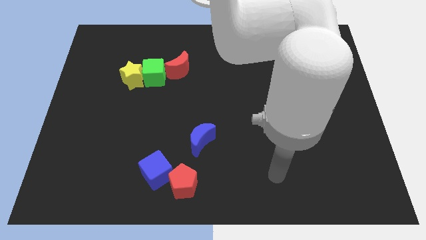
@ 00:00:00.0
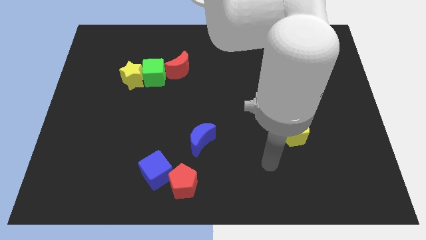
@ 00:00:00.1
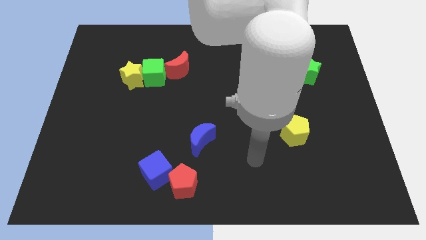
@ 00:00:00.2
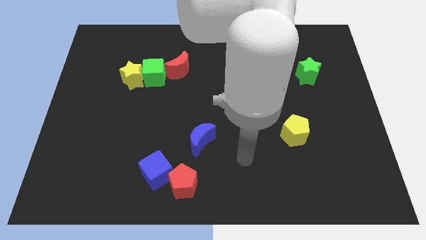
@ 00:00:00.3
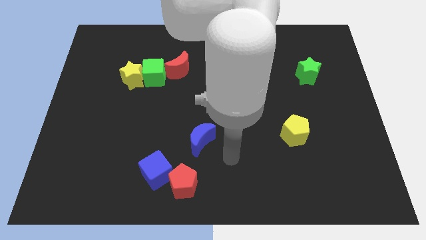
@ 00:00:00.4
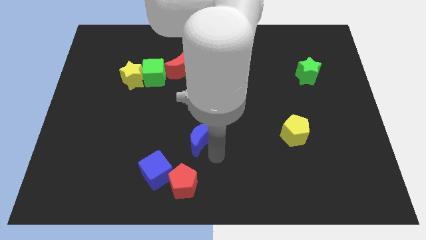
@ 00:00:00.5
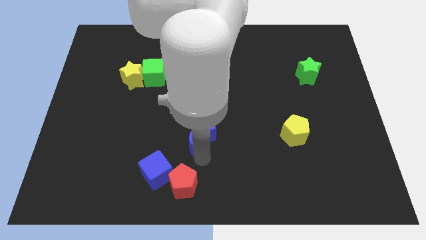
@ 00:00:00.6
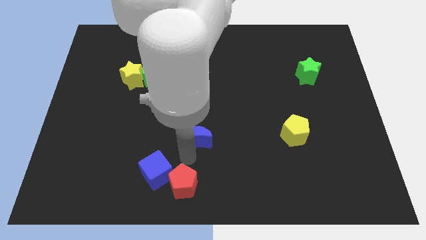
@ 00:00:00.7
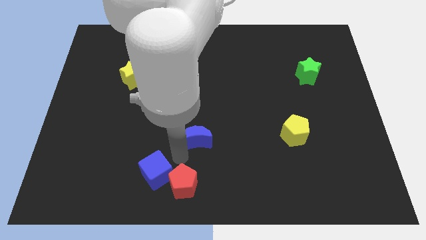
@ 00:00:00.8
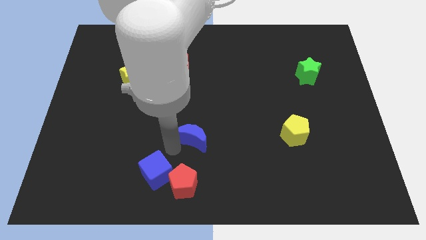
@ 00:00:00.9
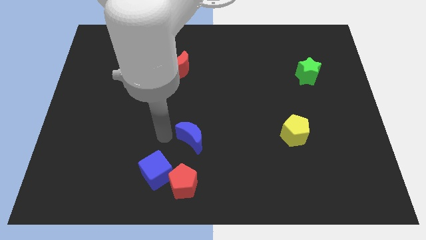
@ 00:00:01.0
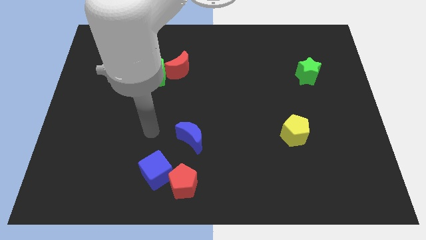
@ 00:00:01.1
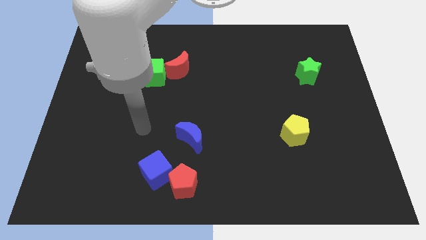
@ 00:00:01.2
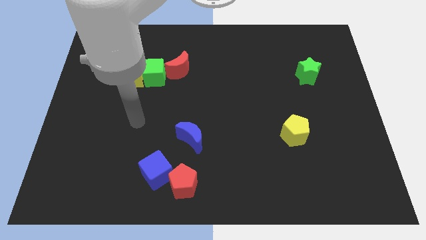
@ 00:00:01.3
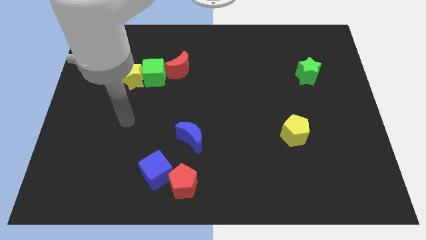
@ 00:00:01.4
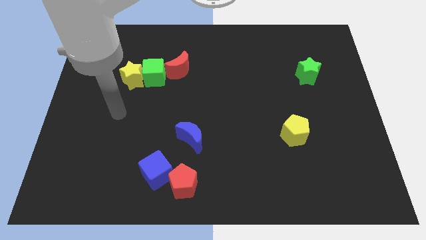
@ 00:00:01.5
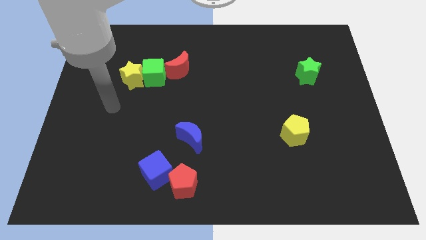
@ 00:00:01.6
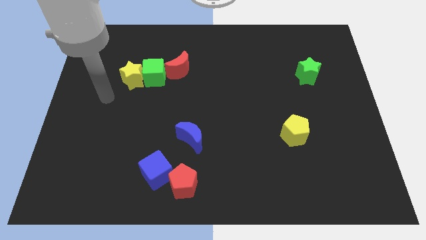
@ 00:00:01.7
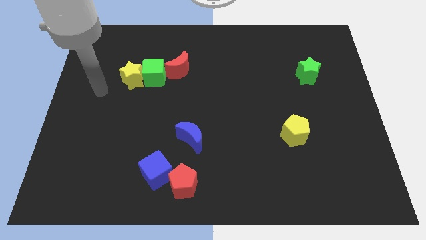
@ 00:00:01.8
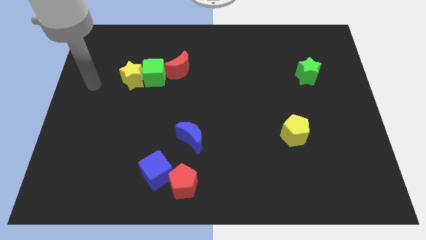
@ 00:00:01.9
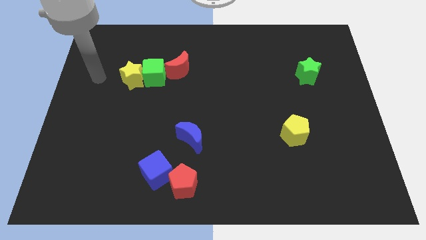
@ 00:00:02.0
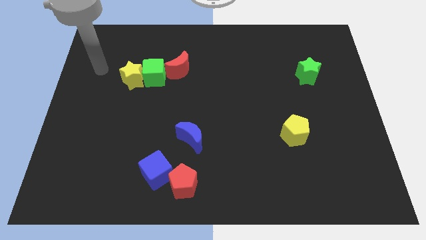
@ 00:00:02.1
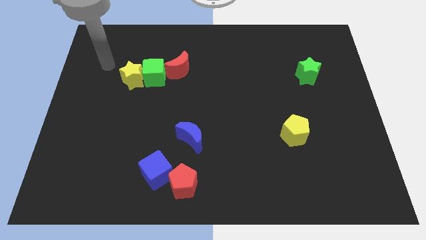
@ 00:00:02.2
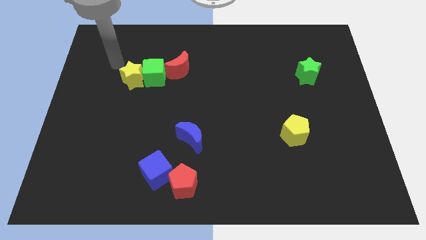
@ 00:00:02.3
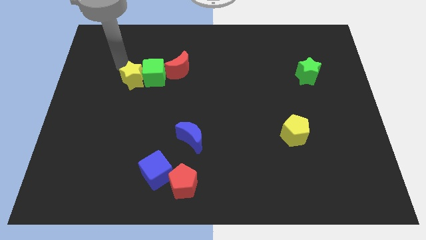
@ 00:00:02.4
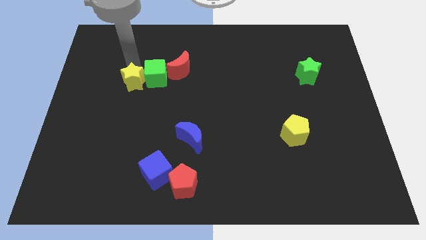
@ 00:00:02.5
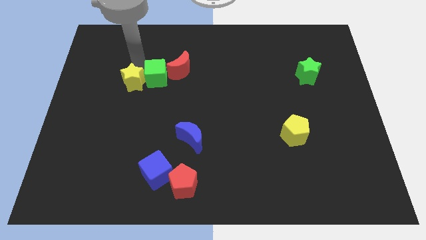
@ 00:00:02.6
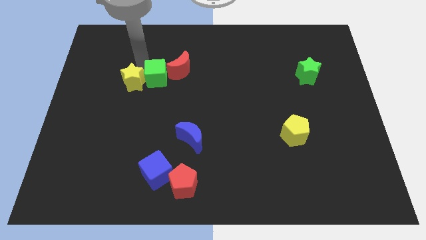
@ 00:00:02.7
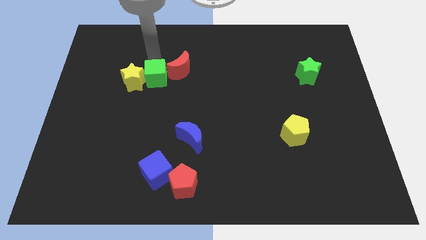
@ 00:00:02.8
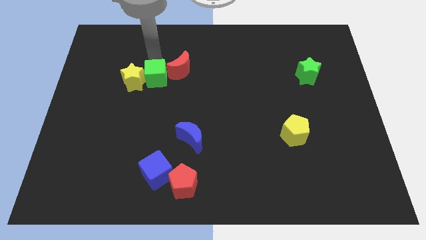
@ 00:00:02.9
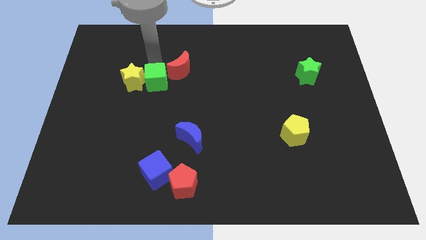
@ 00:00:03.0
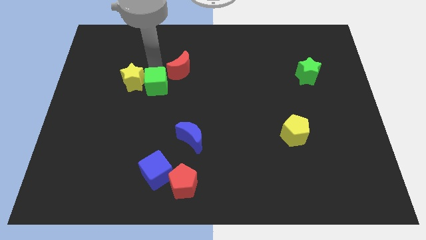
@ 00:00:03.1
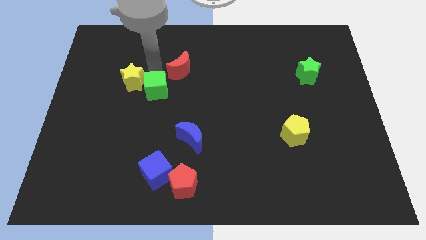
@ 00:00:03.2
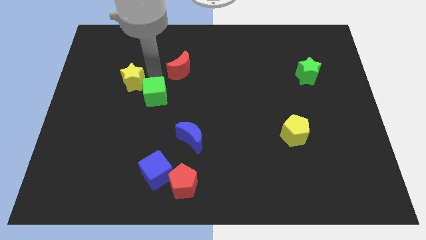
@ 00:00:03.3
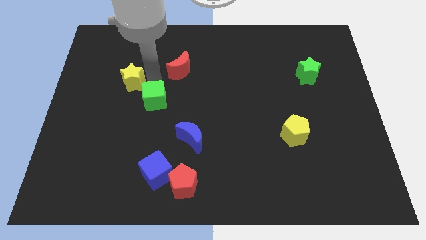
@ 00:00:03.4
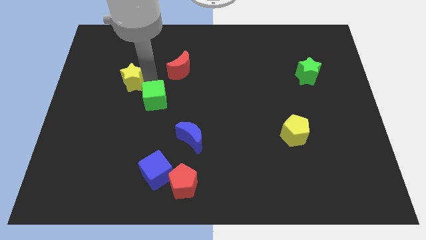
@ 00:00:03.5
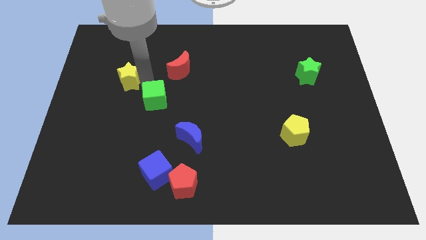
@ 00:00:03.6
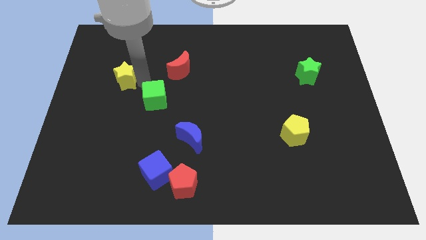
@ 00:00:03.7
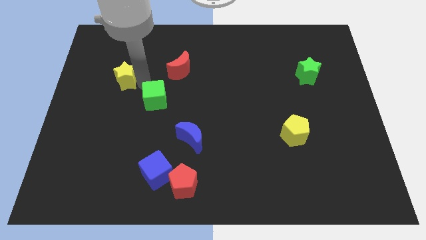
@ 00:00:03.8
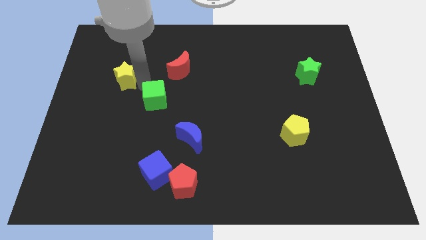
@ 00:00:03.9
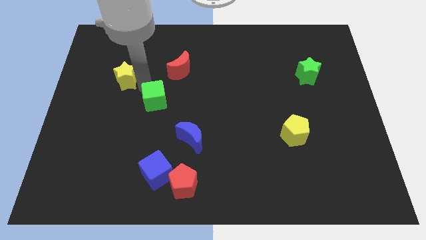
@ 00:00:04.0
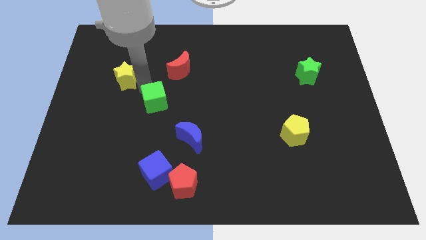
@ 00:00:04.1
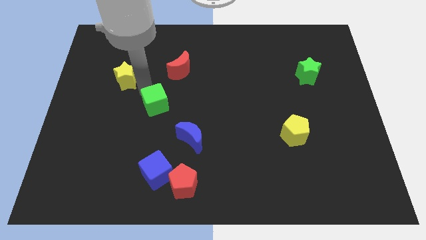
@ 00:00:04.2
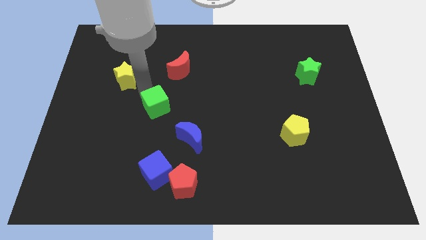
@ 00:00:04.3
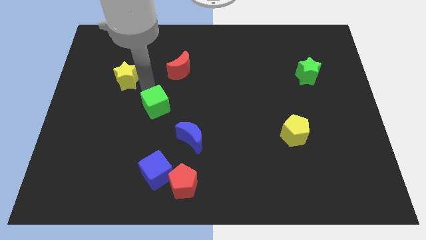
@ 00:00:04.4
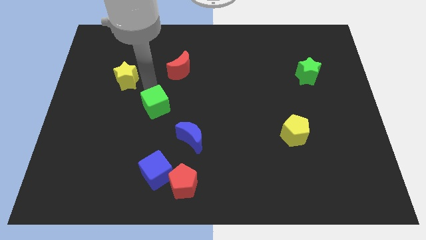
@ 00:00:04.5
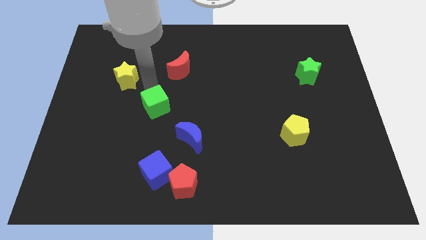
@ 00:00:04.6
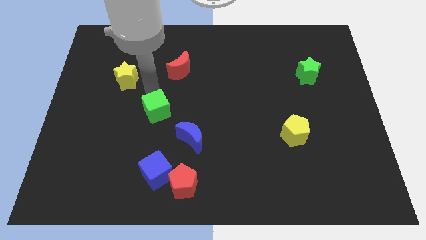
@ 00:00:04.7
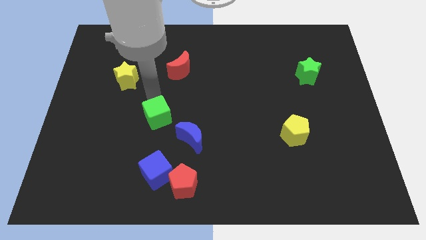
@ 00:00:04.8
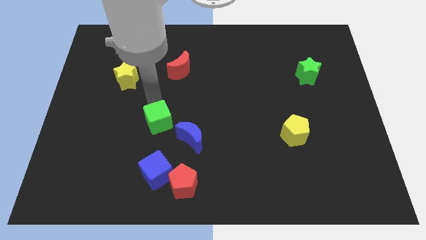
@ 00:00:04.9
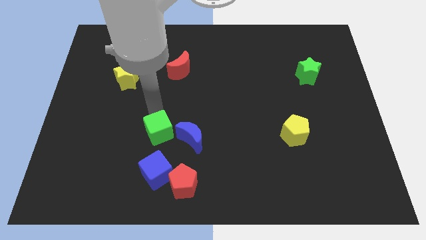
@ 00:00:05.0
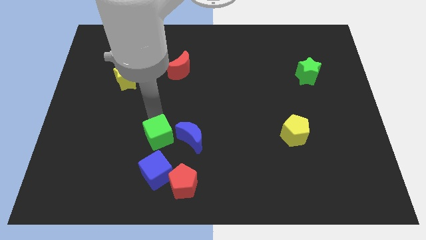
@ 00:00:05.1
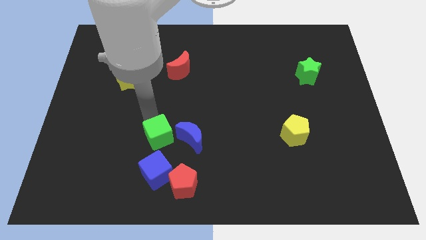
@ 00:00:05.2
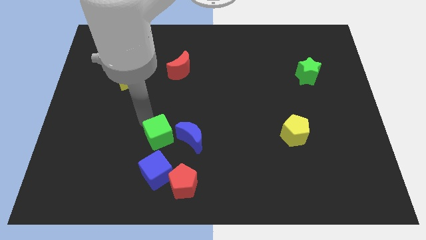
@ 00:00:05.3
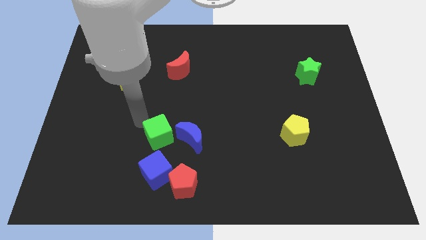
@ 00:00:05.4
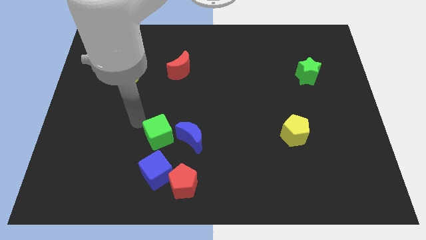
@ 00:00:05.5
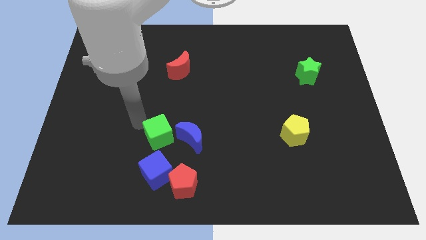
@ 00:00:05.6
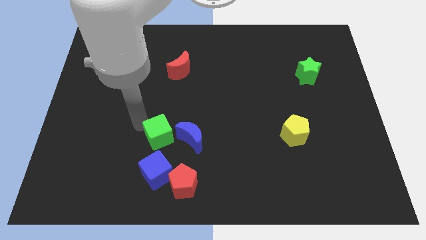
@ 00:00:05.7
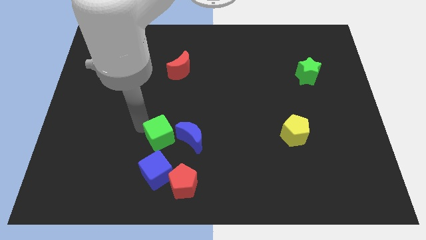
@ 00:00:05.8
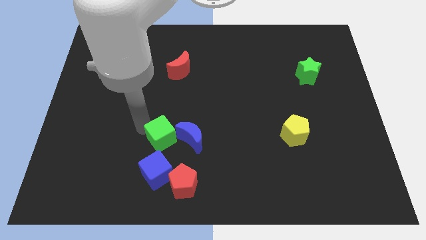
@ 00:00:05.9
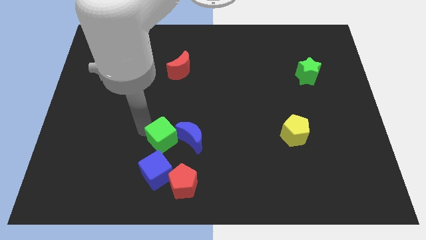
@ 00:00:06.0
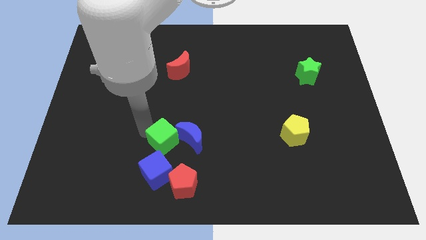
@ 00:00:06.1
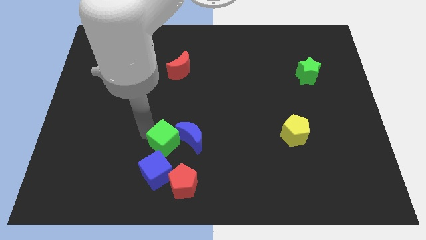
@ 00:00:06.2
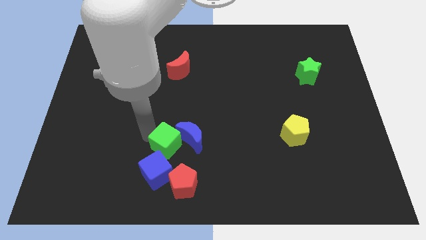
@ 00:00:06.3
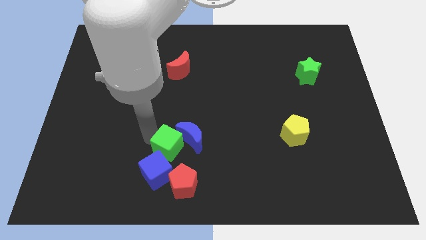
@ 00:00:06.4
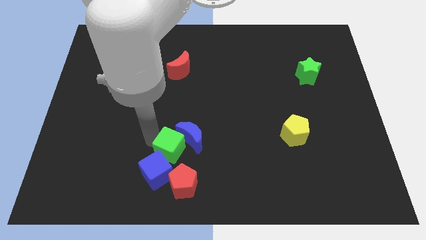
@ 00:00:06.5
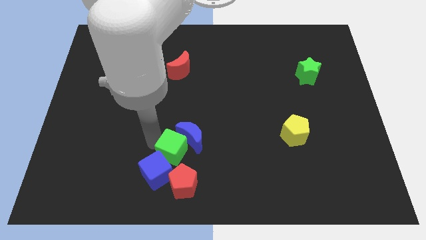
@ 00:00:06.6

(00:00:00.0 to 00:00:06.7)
slide the green cube to the bottom side of the blue moon

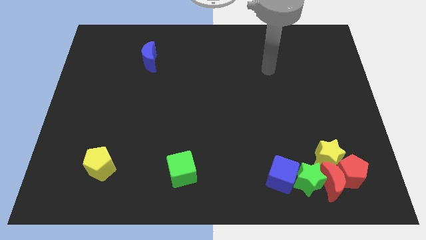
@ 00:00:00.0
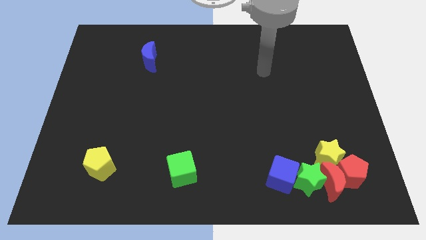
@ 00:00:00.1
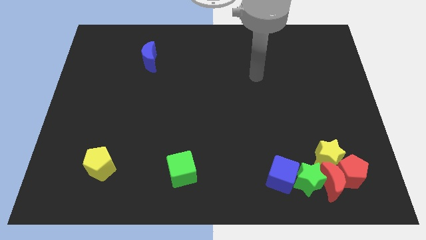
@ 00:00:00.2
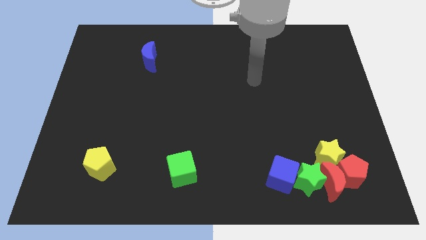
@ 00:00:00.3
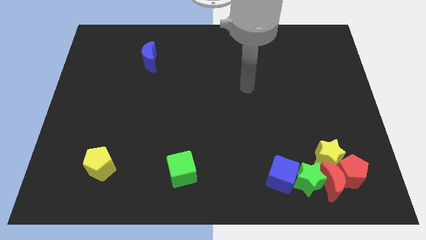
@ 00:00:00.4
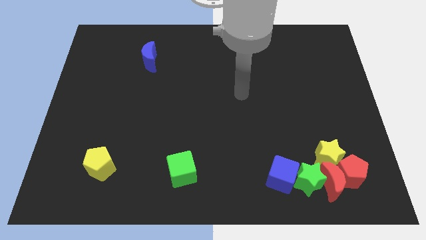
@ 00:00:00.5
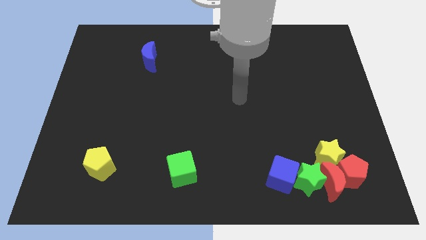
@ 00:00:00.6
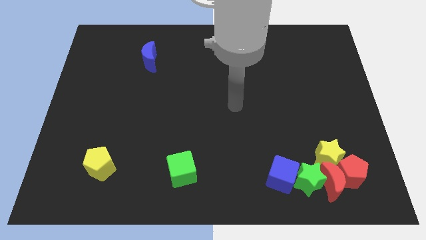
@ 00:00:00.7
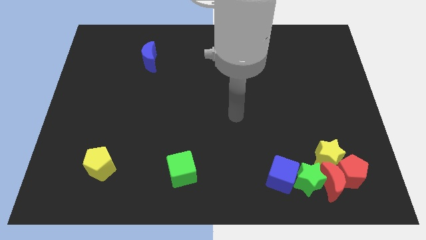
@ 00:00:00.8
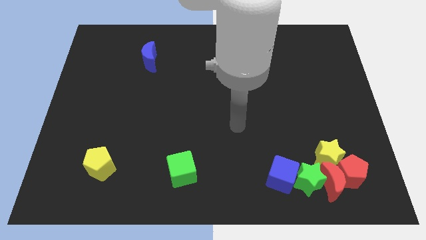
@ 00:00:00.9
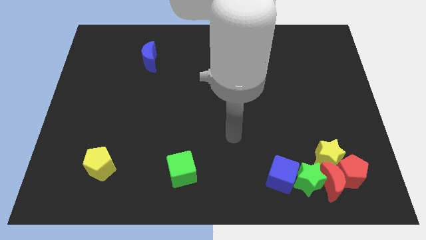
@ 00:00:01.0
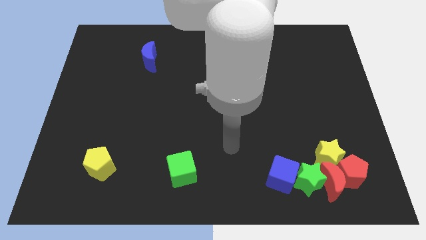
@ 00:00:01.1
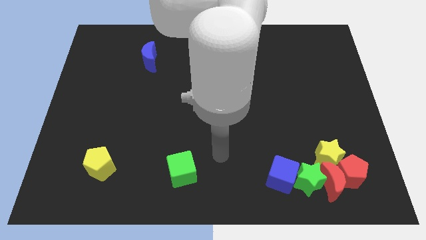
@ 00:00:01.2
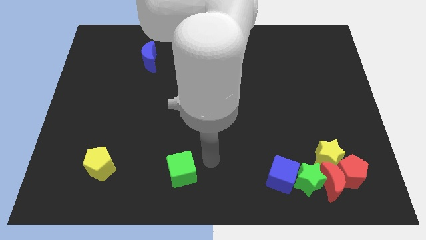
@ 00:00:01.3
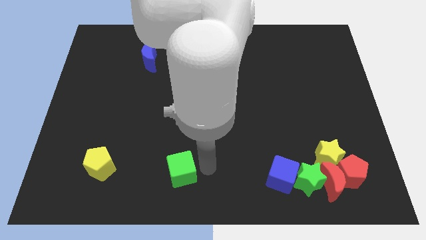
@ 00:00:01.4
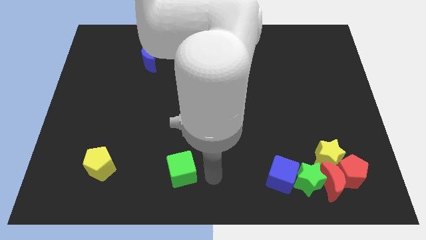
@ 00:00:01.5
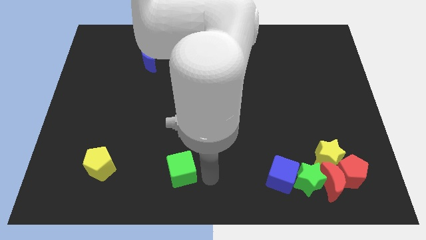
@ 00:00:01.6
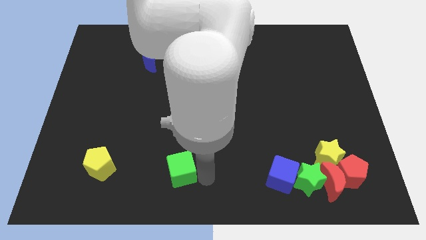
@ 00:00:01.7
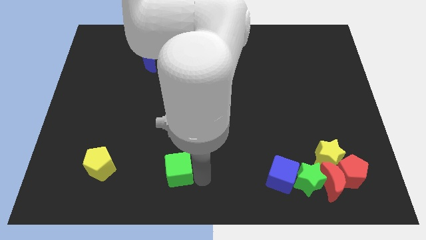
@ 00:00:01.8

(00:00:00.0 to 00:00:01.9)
slide the green cube right of the yellow pentagon
